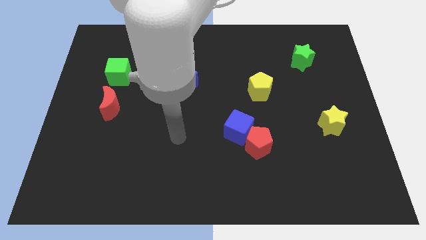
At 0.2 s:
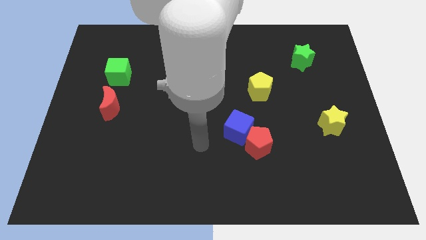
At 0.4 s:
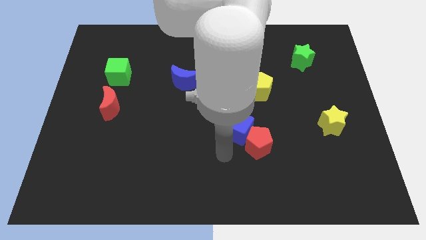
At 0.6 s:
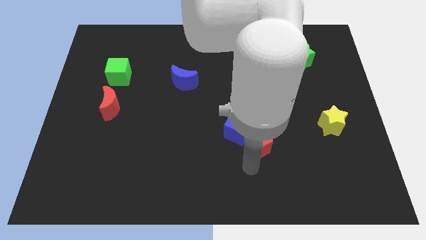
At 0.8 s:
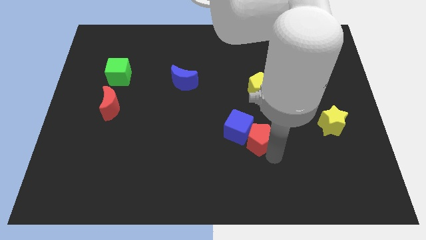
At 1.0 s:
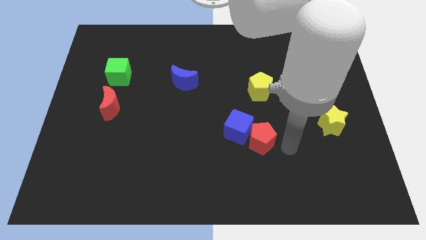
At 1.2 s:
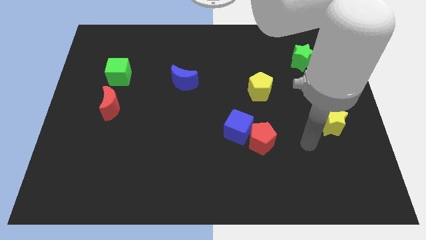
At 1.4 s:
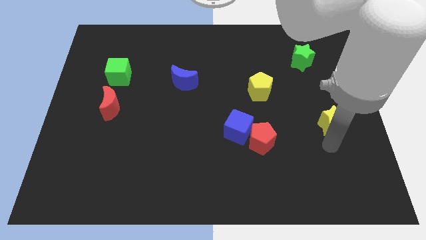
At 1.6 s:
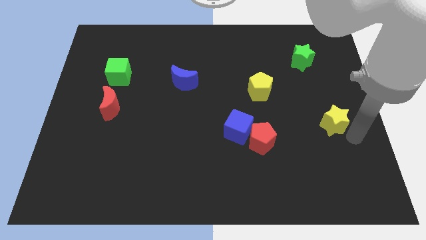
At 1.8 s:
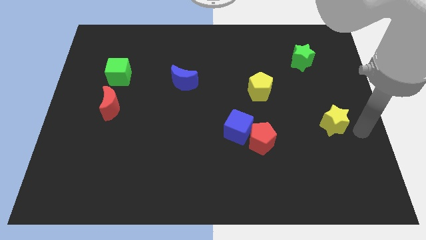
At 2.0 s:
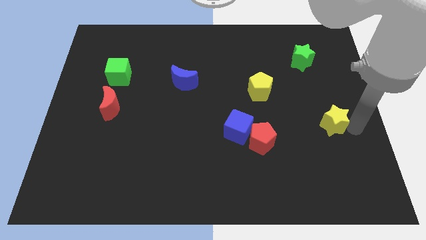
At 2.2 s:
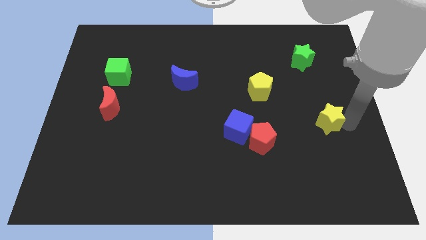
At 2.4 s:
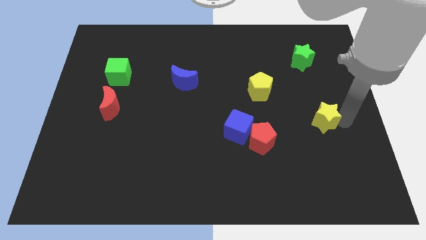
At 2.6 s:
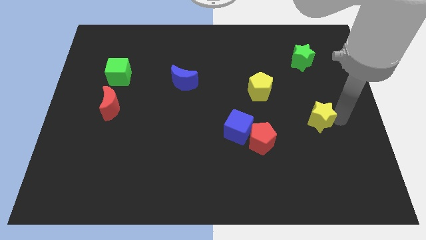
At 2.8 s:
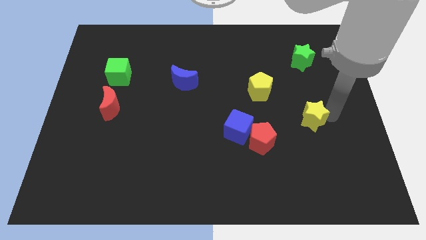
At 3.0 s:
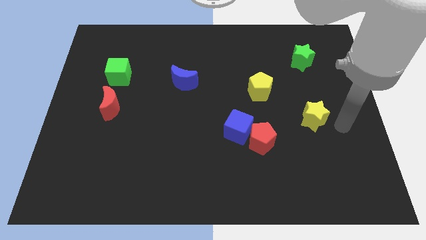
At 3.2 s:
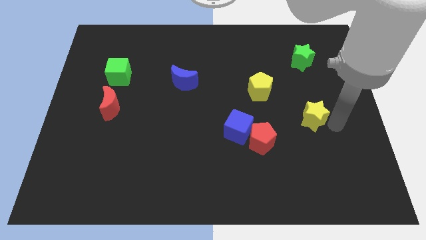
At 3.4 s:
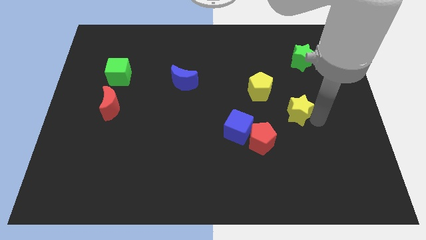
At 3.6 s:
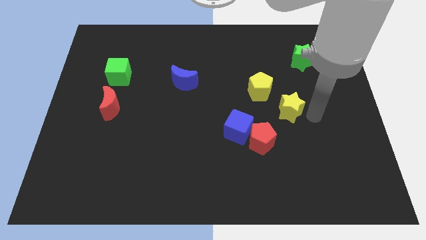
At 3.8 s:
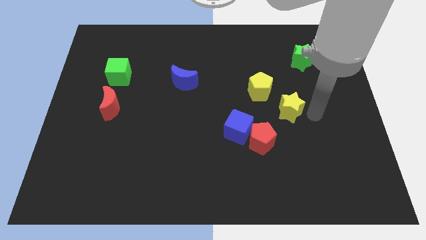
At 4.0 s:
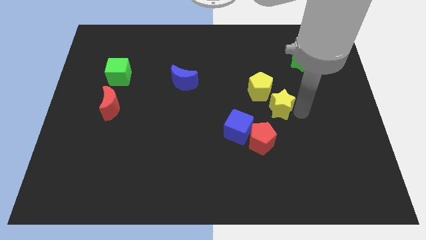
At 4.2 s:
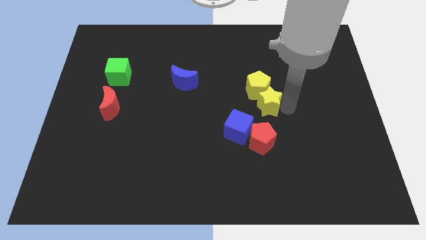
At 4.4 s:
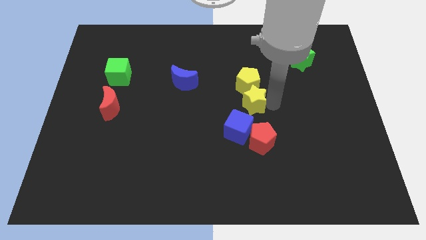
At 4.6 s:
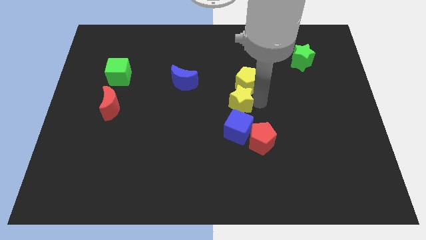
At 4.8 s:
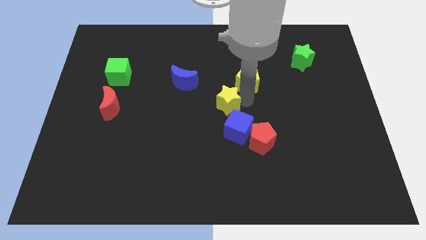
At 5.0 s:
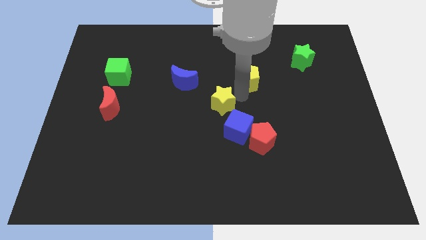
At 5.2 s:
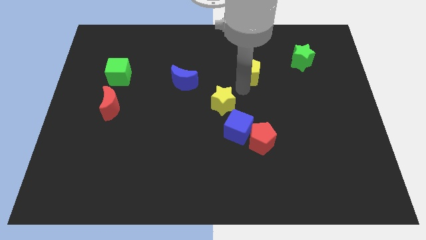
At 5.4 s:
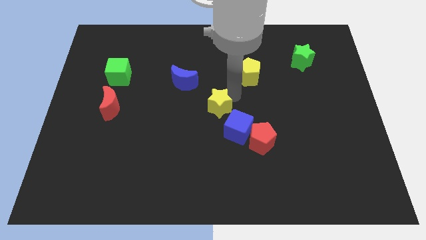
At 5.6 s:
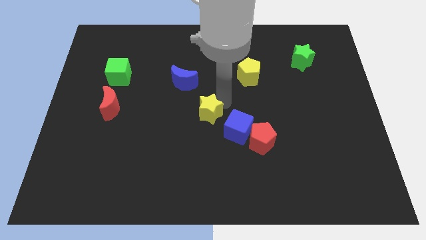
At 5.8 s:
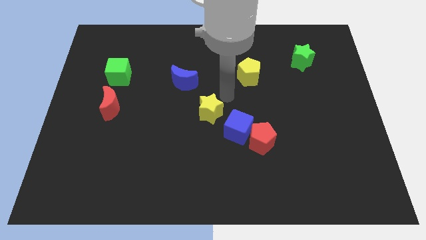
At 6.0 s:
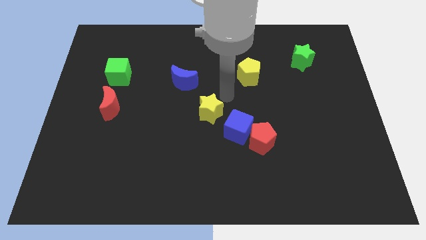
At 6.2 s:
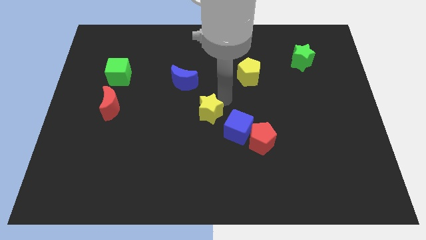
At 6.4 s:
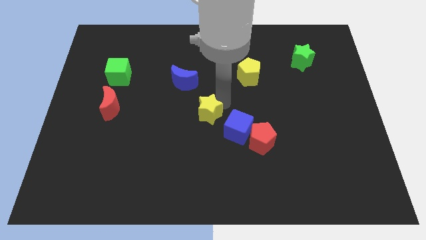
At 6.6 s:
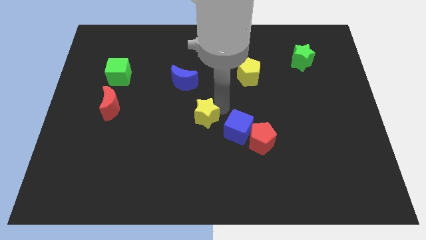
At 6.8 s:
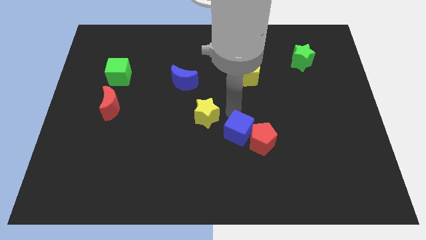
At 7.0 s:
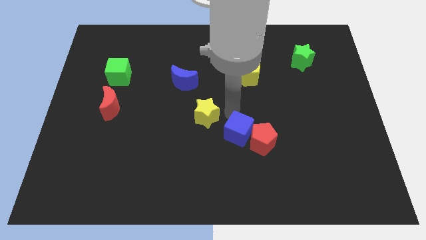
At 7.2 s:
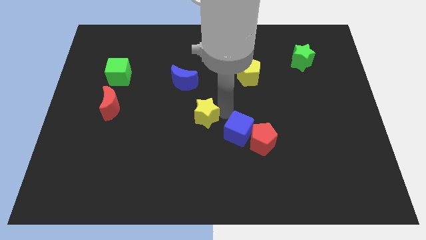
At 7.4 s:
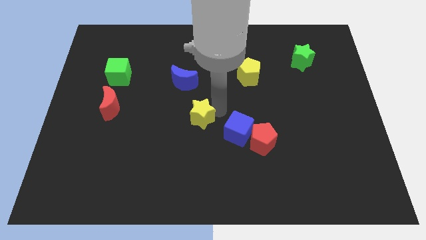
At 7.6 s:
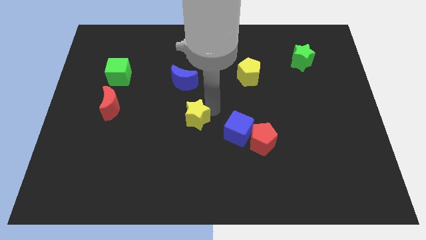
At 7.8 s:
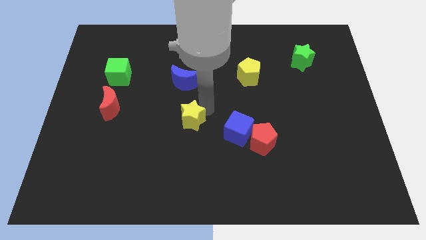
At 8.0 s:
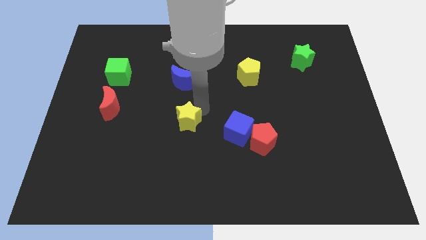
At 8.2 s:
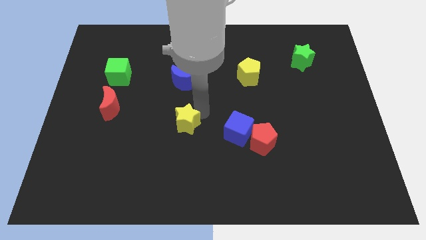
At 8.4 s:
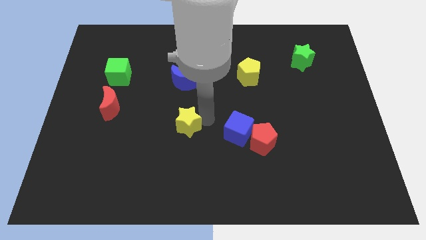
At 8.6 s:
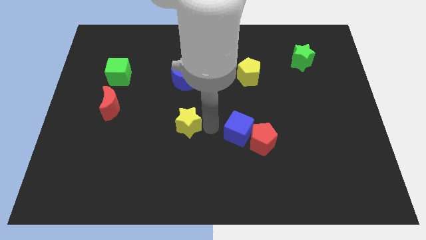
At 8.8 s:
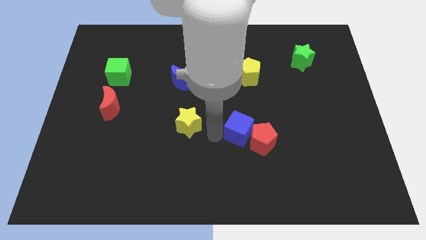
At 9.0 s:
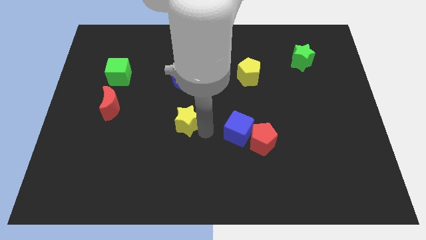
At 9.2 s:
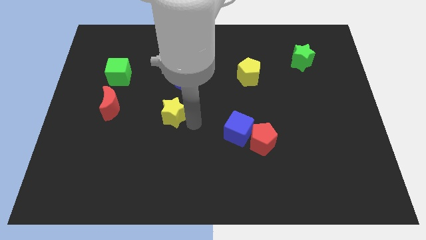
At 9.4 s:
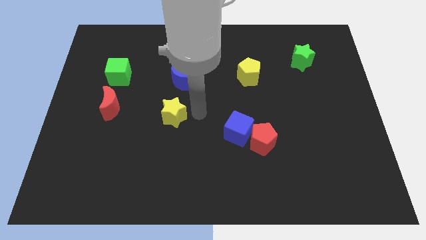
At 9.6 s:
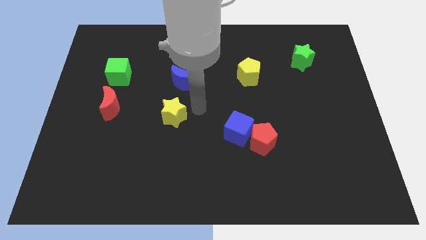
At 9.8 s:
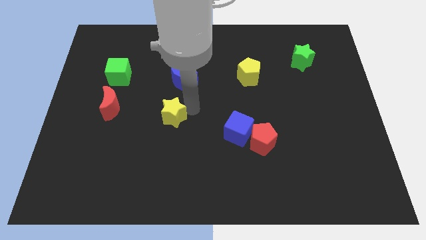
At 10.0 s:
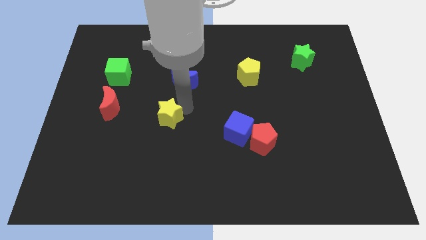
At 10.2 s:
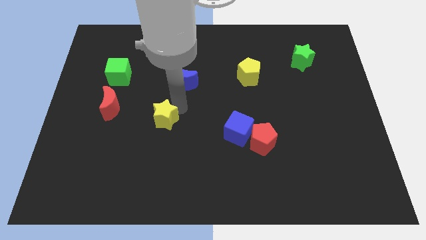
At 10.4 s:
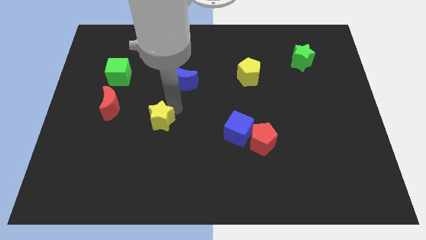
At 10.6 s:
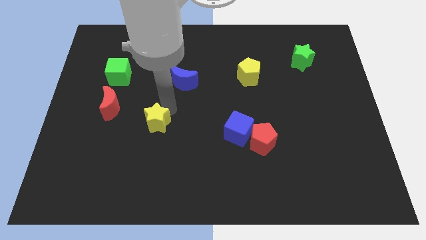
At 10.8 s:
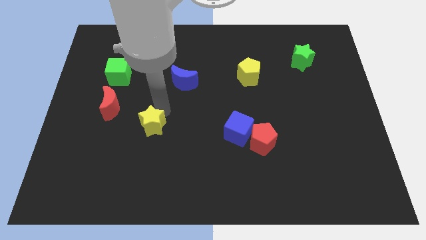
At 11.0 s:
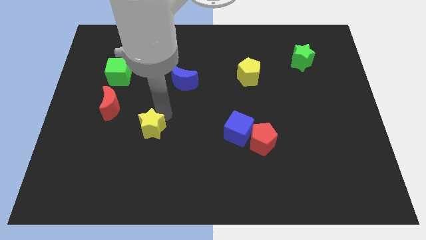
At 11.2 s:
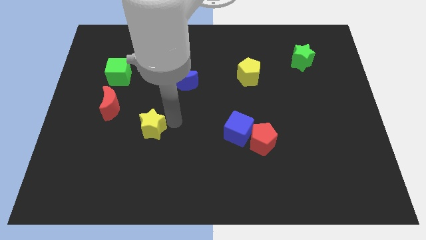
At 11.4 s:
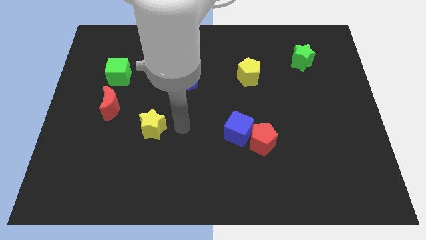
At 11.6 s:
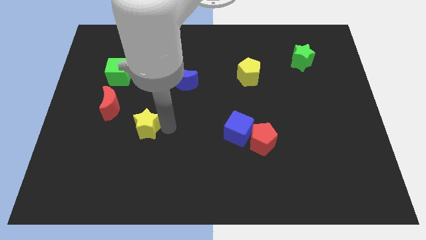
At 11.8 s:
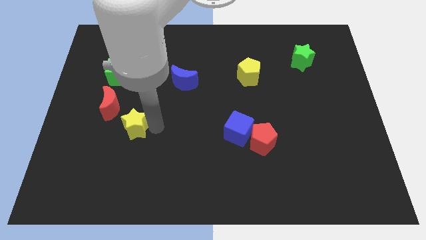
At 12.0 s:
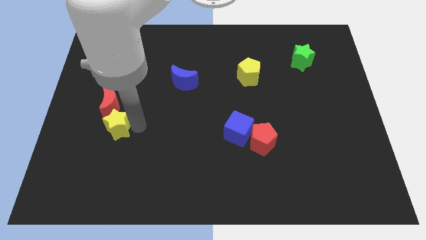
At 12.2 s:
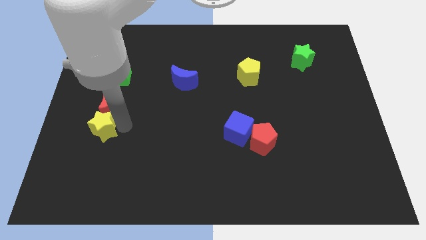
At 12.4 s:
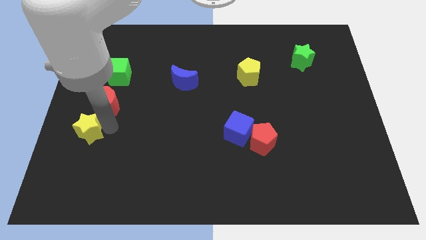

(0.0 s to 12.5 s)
slide the yellow star to the left side of the board

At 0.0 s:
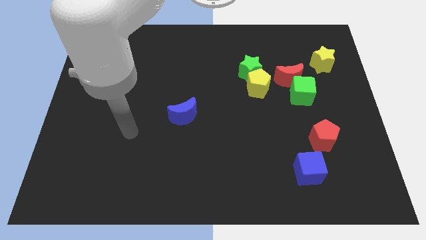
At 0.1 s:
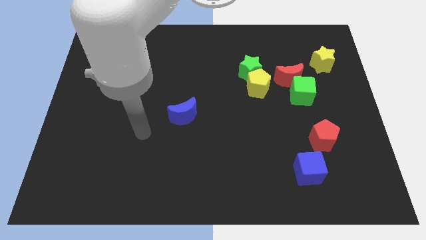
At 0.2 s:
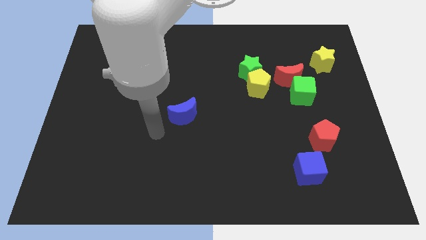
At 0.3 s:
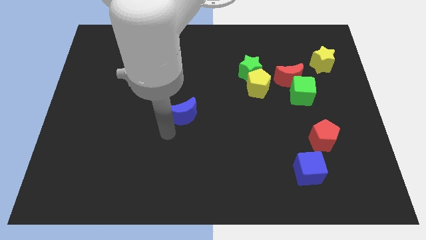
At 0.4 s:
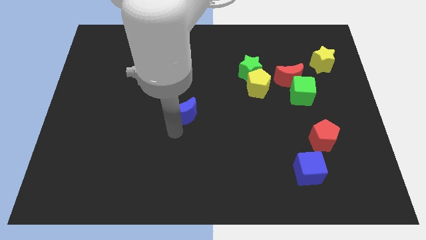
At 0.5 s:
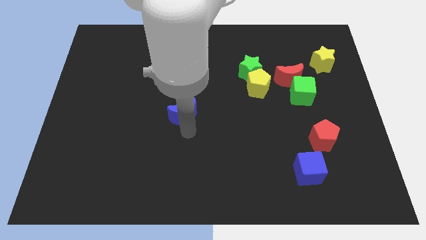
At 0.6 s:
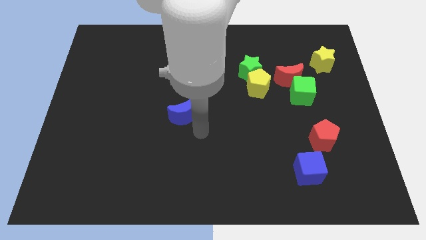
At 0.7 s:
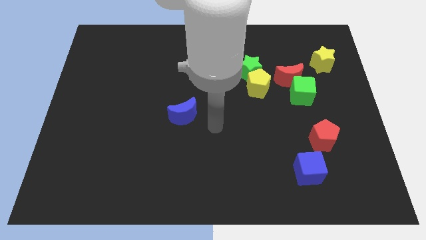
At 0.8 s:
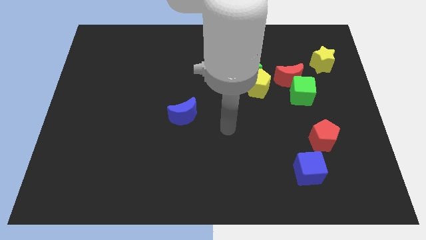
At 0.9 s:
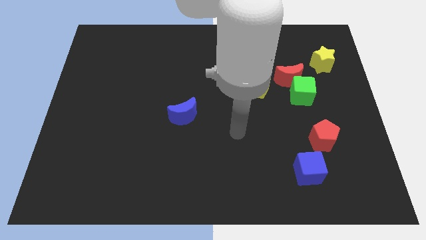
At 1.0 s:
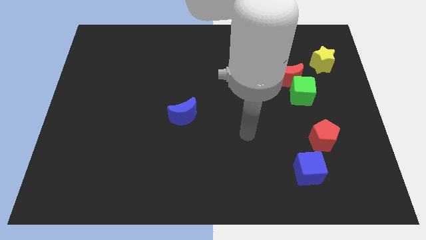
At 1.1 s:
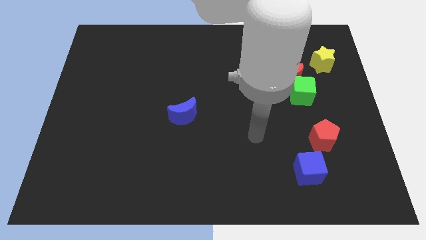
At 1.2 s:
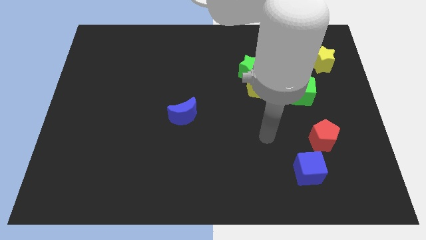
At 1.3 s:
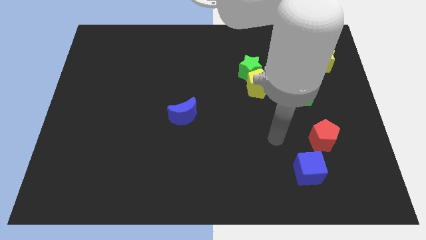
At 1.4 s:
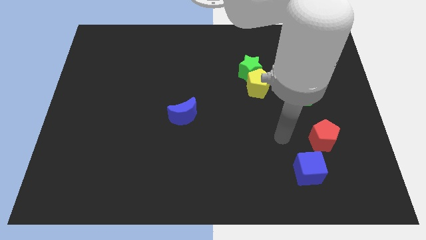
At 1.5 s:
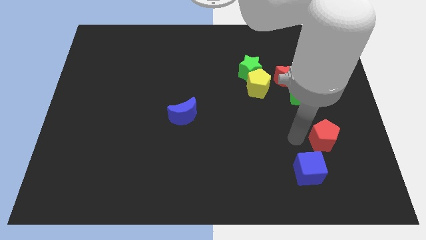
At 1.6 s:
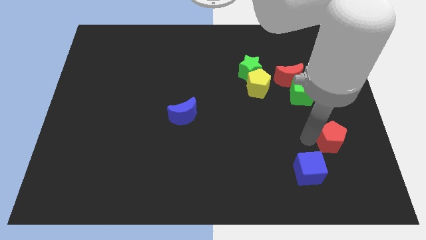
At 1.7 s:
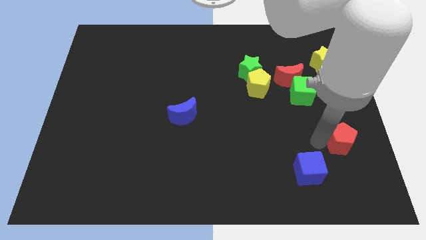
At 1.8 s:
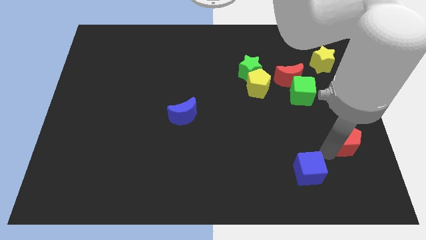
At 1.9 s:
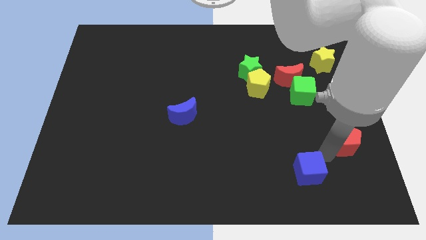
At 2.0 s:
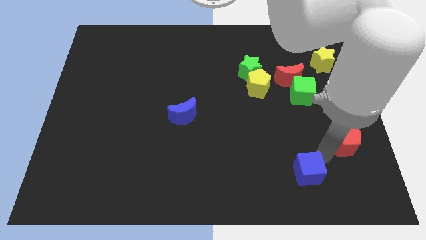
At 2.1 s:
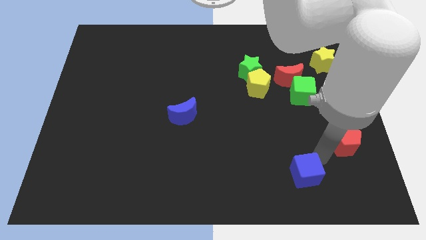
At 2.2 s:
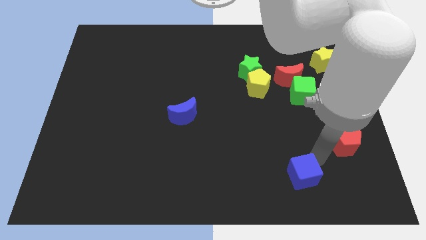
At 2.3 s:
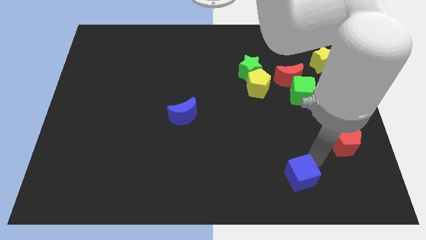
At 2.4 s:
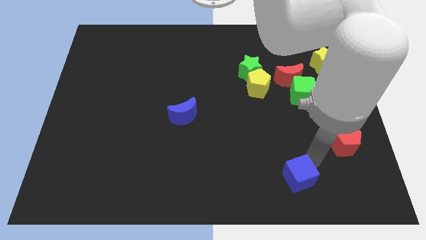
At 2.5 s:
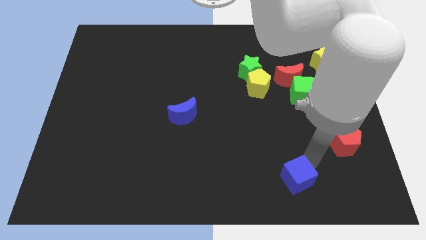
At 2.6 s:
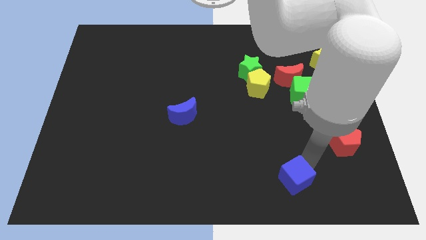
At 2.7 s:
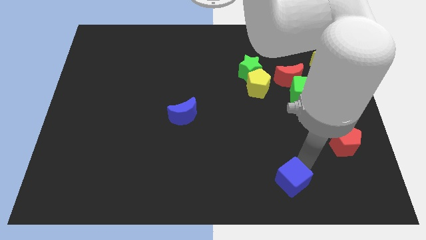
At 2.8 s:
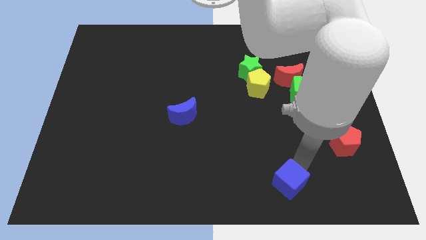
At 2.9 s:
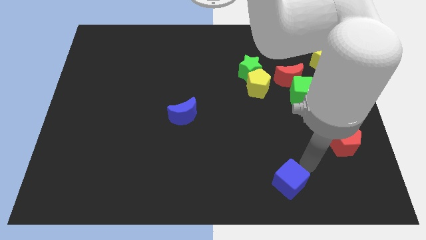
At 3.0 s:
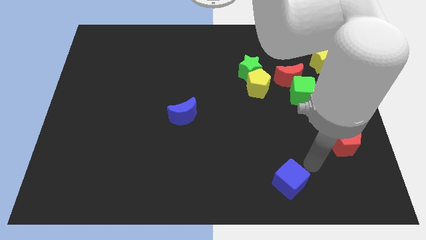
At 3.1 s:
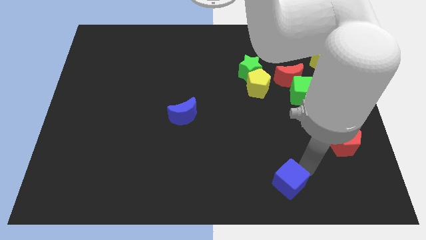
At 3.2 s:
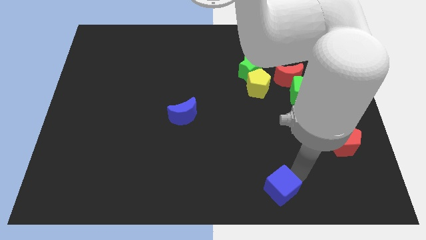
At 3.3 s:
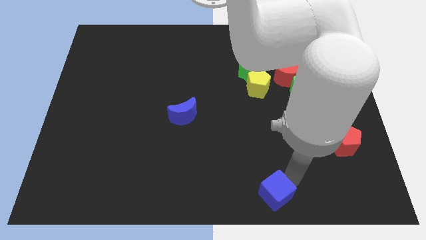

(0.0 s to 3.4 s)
slide the blue cube to the bottom
